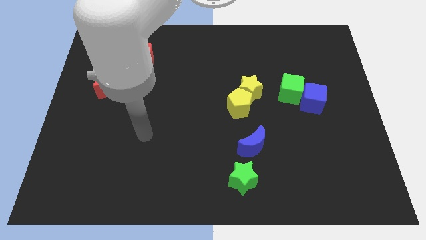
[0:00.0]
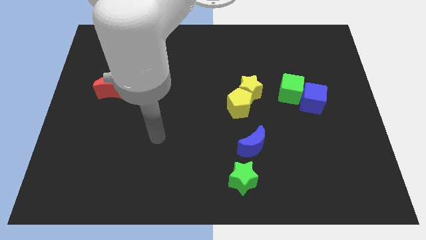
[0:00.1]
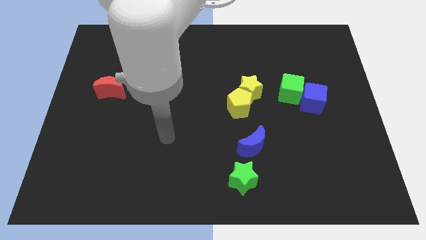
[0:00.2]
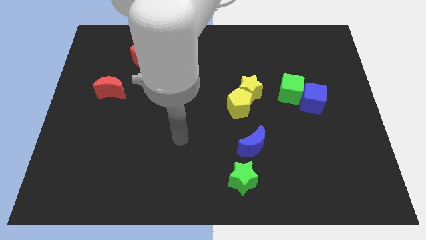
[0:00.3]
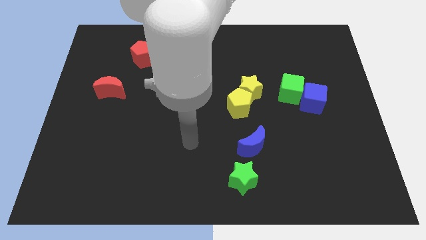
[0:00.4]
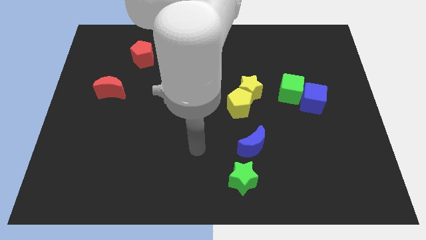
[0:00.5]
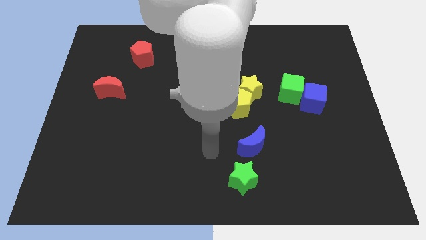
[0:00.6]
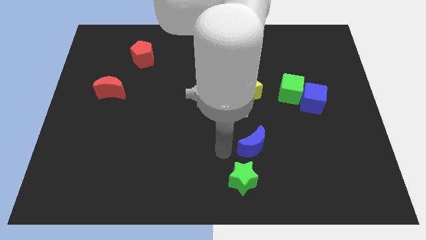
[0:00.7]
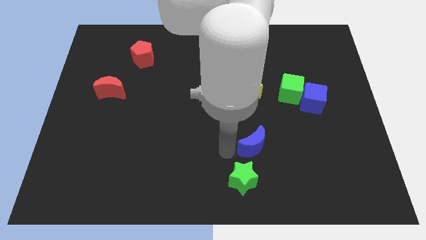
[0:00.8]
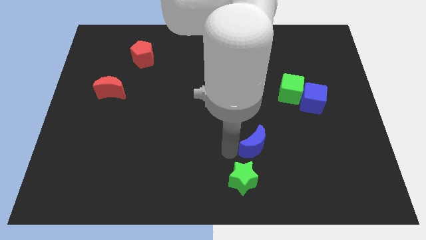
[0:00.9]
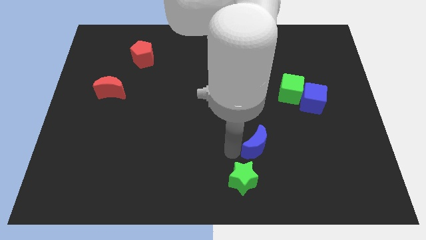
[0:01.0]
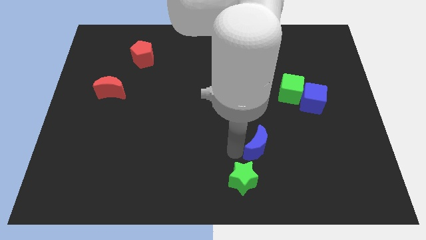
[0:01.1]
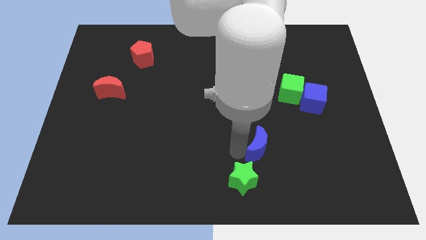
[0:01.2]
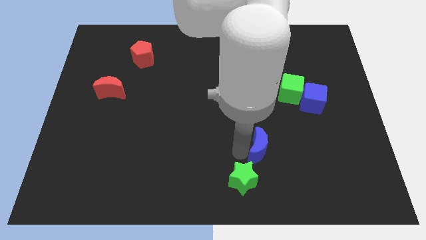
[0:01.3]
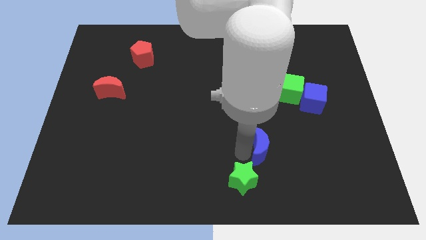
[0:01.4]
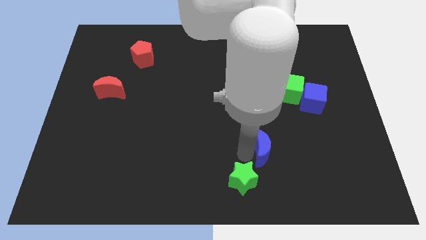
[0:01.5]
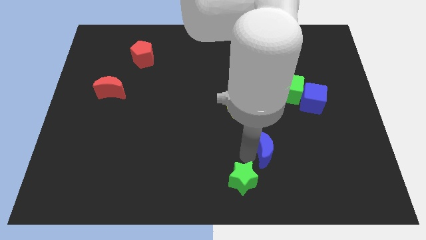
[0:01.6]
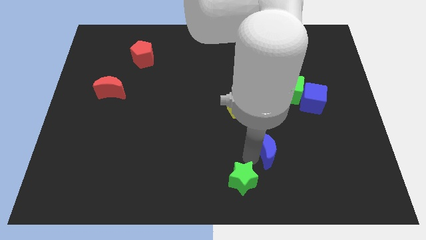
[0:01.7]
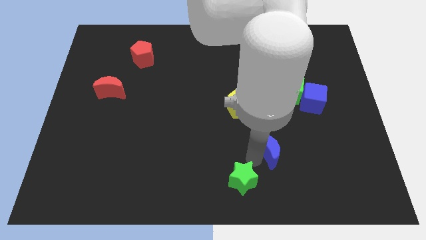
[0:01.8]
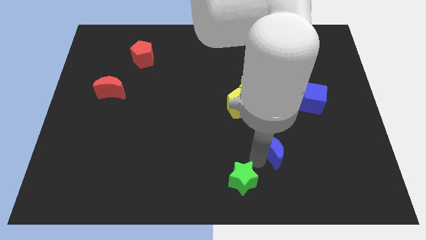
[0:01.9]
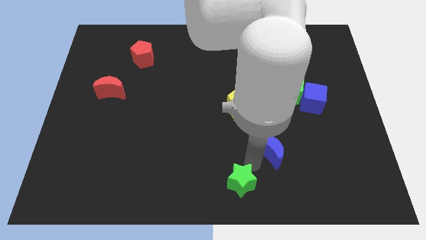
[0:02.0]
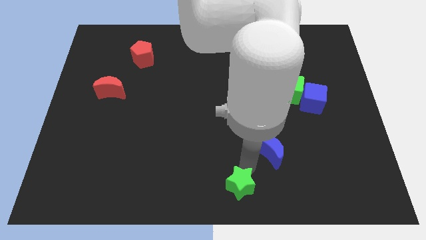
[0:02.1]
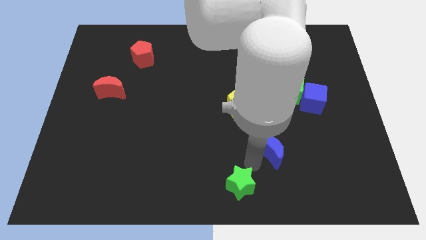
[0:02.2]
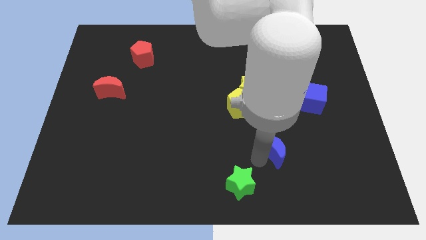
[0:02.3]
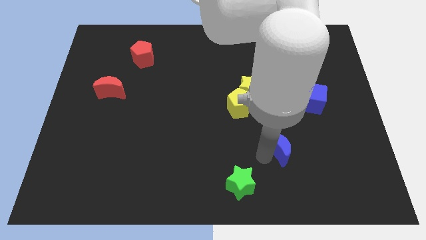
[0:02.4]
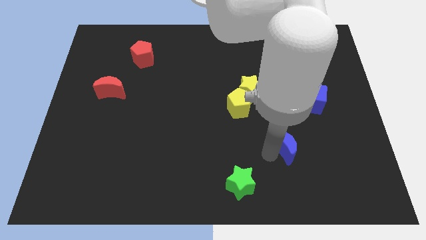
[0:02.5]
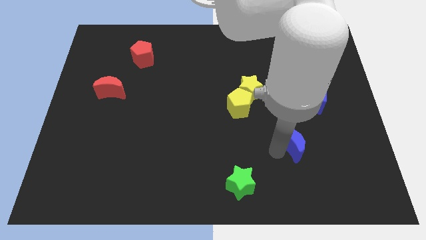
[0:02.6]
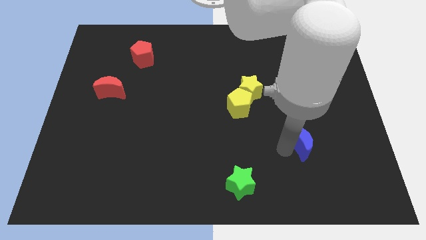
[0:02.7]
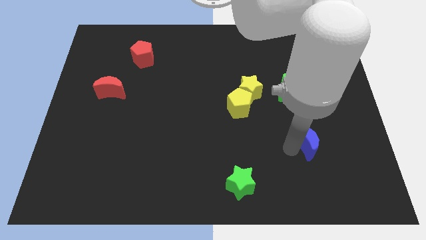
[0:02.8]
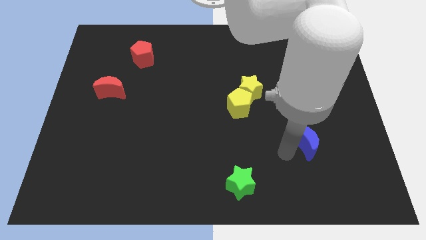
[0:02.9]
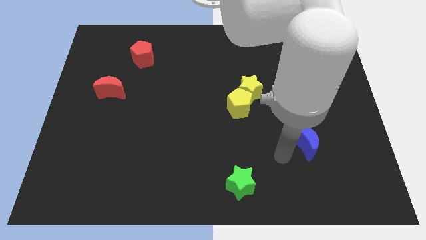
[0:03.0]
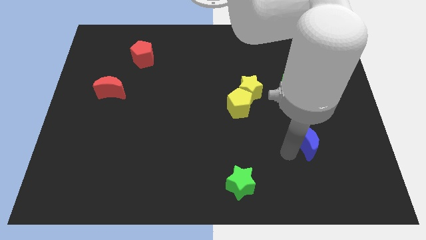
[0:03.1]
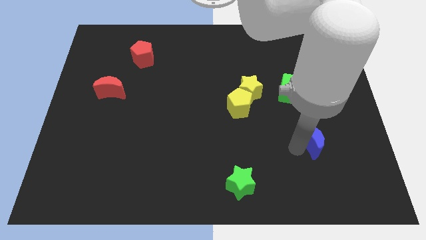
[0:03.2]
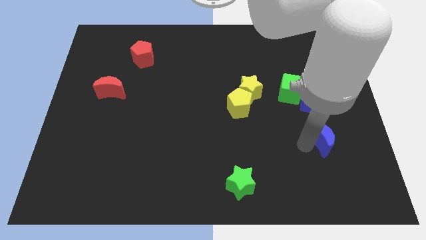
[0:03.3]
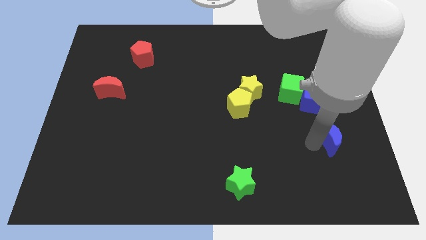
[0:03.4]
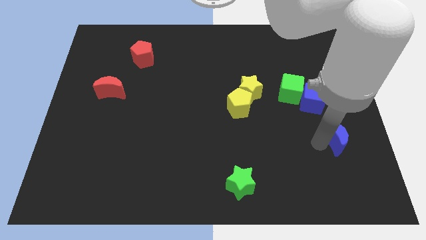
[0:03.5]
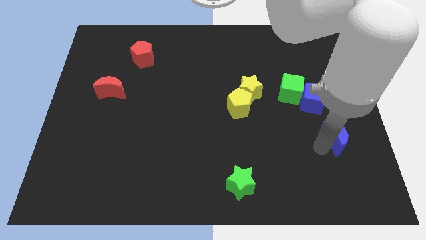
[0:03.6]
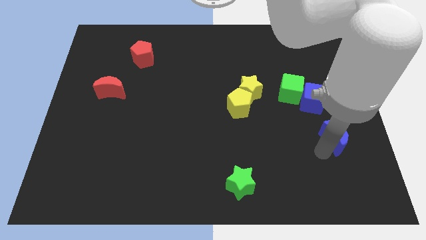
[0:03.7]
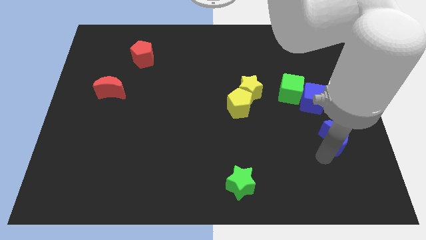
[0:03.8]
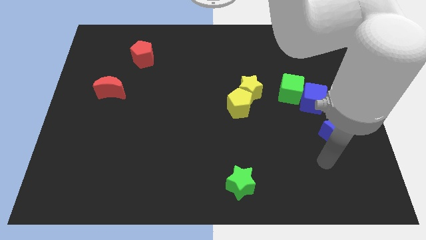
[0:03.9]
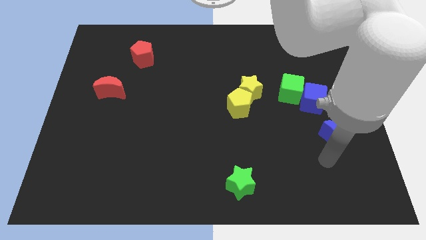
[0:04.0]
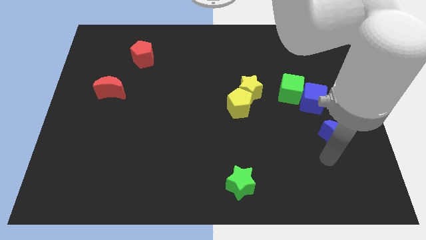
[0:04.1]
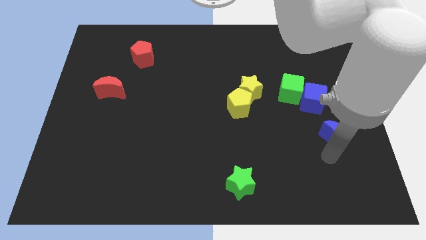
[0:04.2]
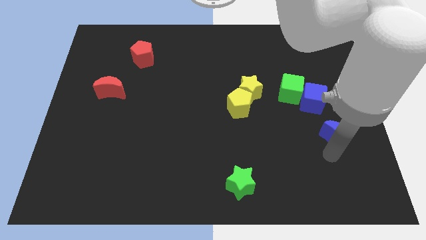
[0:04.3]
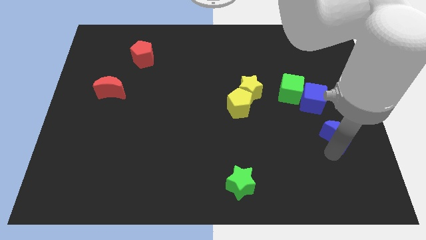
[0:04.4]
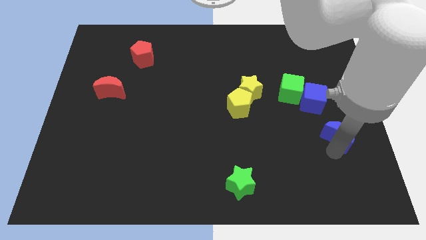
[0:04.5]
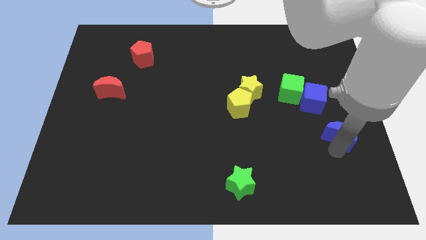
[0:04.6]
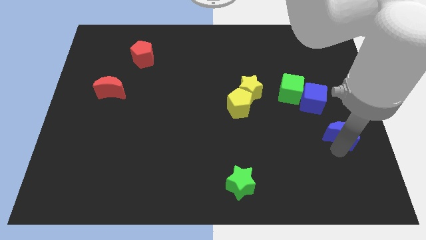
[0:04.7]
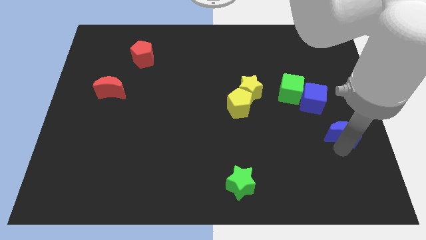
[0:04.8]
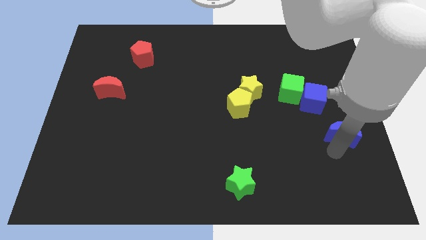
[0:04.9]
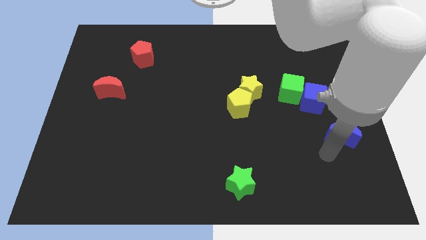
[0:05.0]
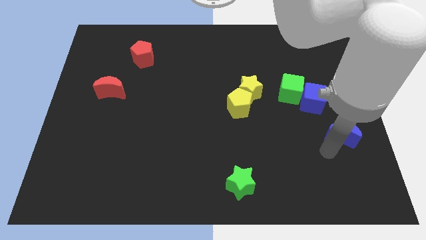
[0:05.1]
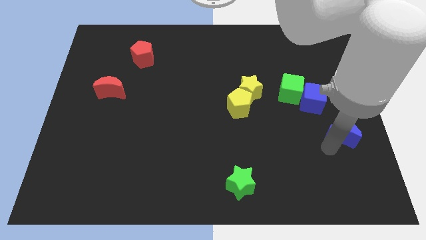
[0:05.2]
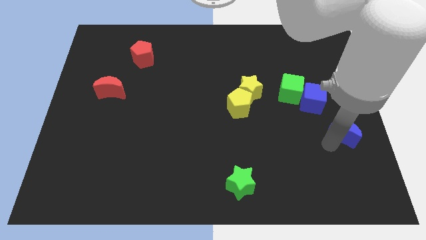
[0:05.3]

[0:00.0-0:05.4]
move the blue moon to the center right

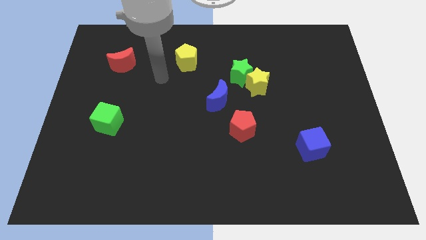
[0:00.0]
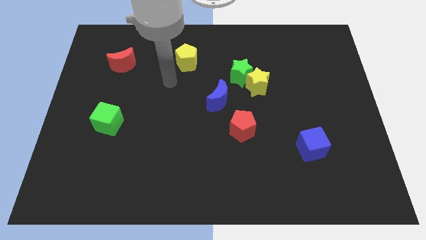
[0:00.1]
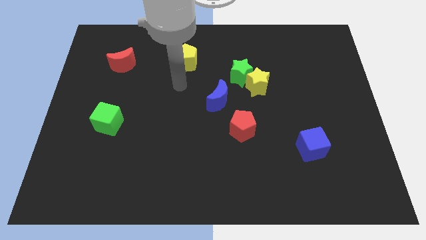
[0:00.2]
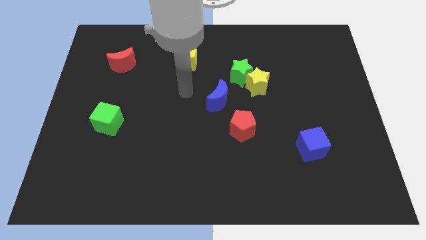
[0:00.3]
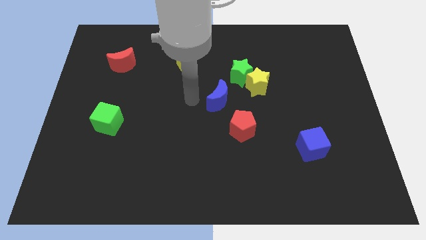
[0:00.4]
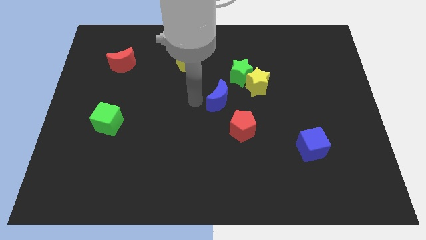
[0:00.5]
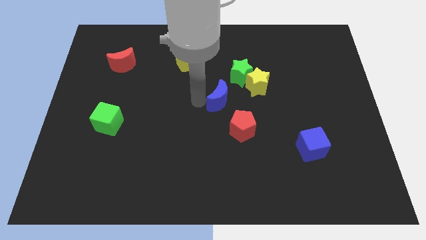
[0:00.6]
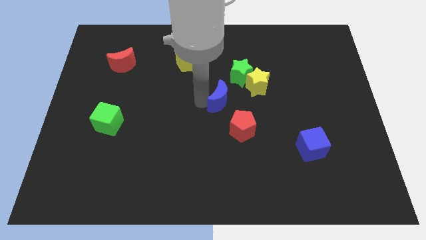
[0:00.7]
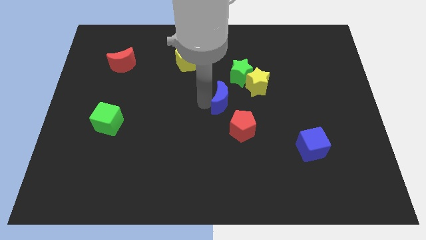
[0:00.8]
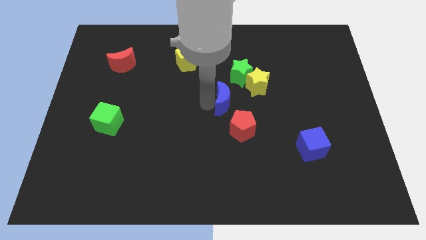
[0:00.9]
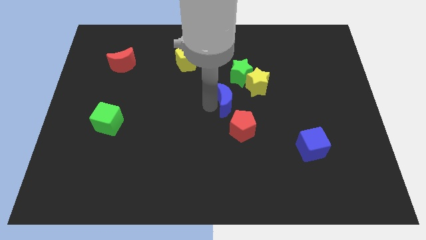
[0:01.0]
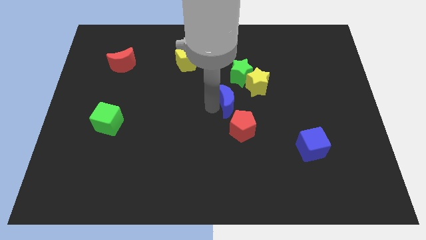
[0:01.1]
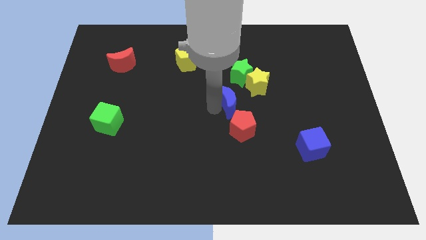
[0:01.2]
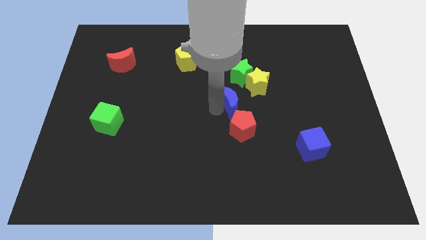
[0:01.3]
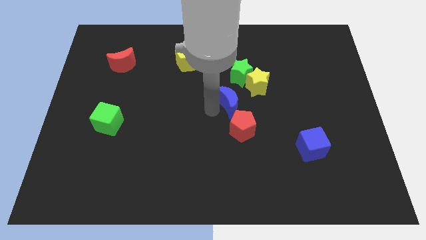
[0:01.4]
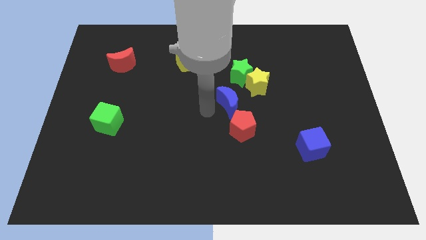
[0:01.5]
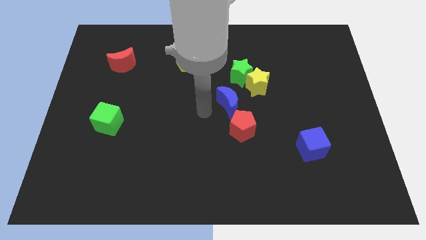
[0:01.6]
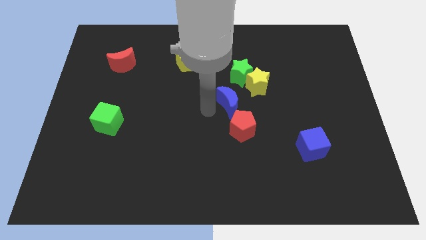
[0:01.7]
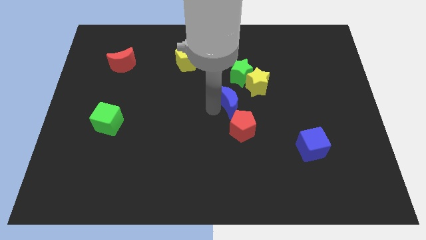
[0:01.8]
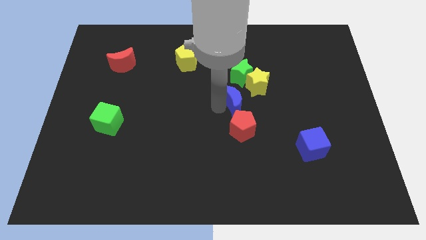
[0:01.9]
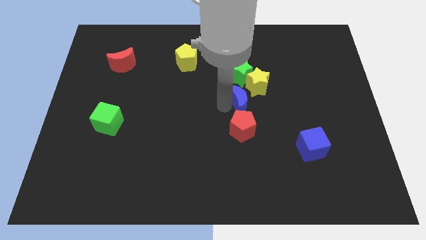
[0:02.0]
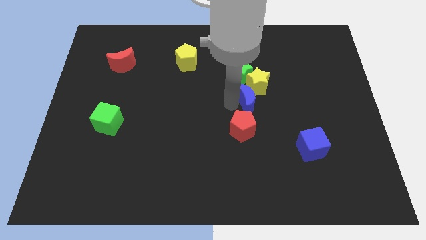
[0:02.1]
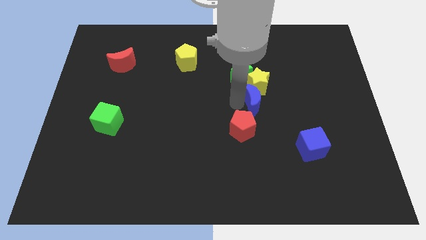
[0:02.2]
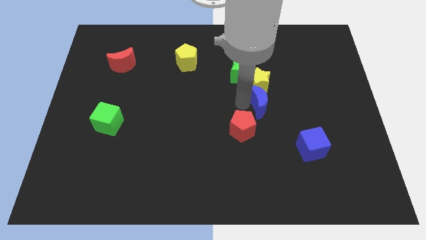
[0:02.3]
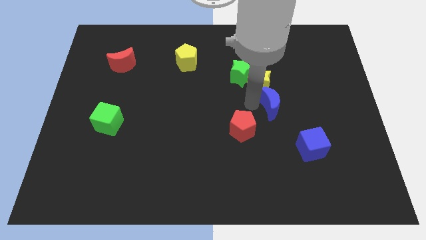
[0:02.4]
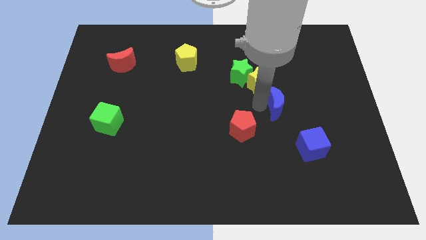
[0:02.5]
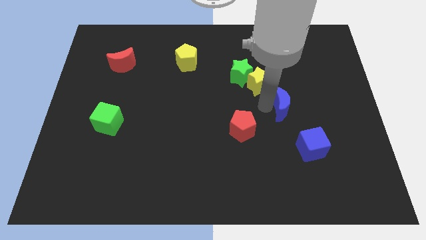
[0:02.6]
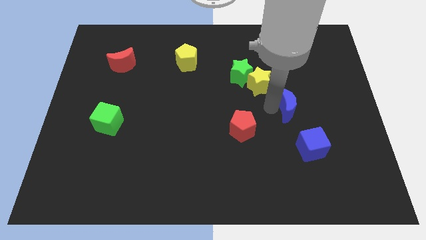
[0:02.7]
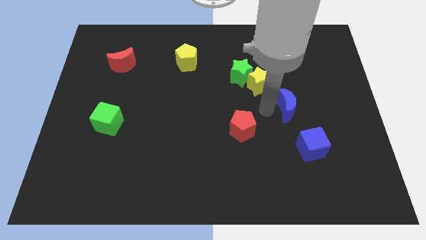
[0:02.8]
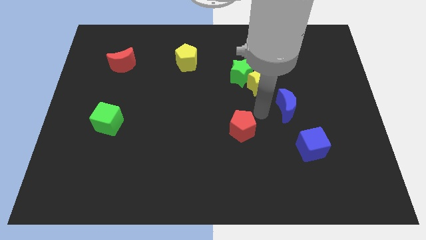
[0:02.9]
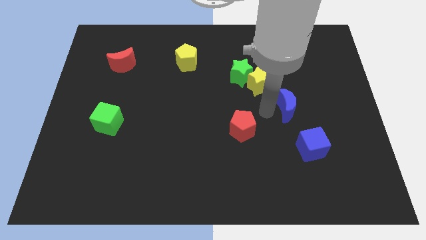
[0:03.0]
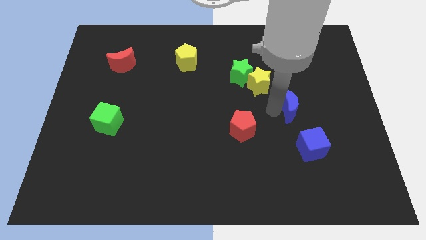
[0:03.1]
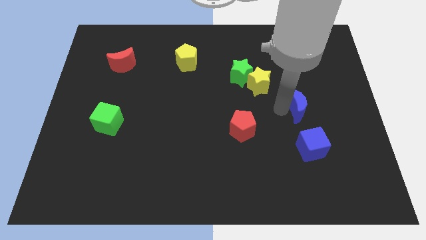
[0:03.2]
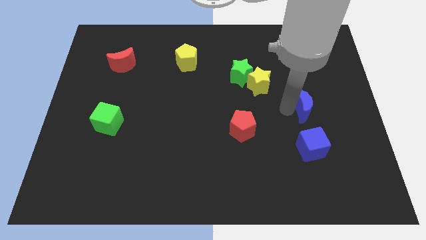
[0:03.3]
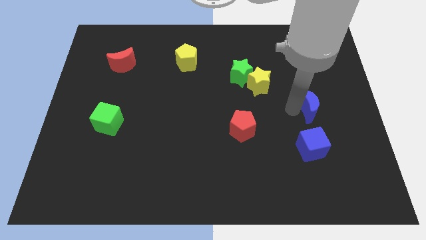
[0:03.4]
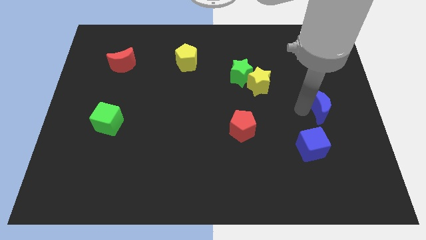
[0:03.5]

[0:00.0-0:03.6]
move the blue moon to the right side
